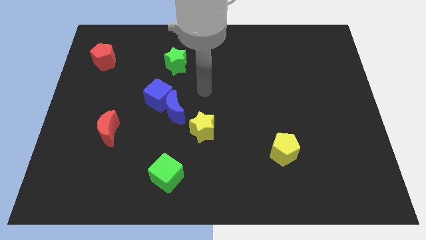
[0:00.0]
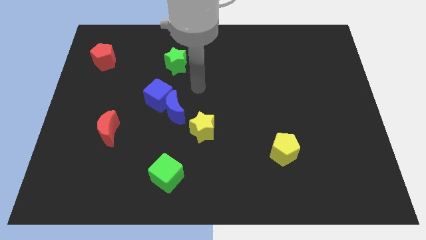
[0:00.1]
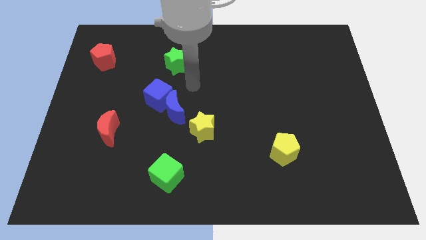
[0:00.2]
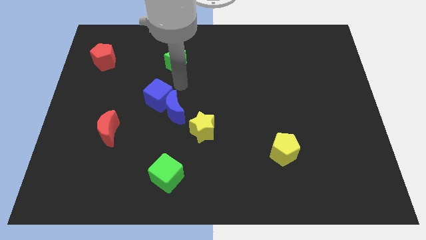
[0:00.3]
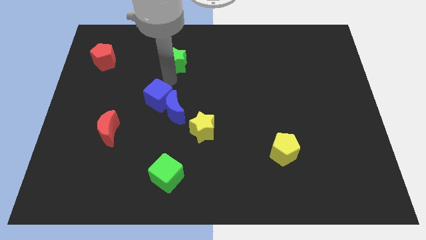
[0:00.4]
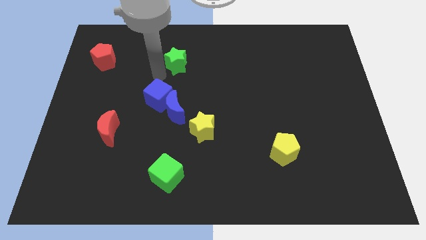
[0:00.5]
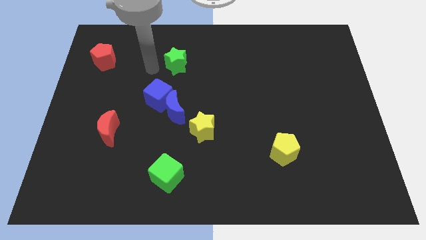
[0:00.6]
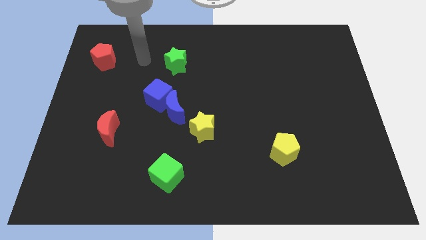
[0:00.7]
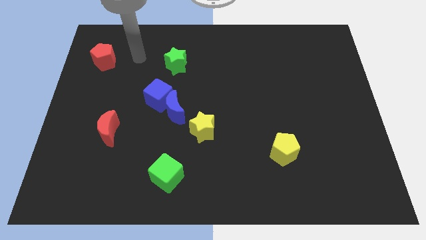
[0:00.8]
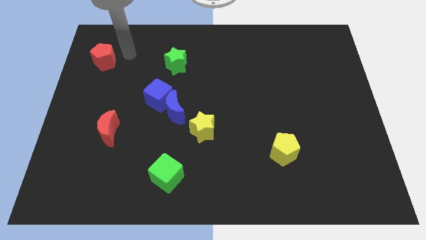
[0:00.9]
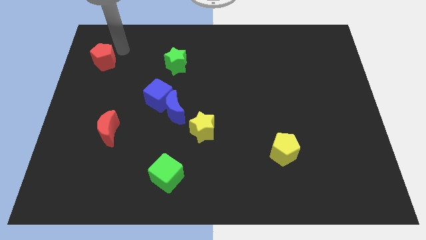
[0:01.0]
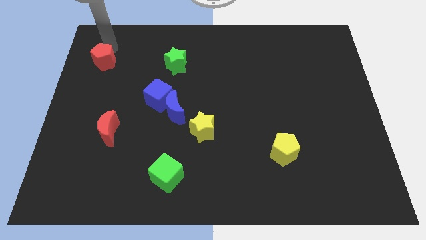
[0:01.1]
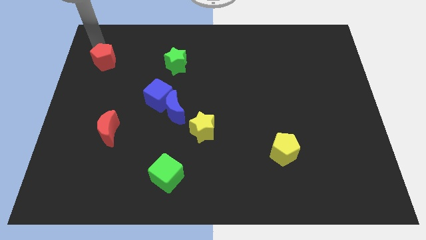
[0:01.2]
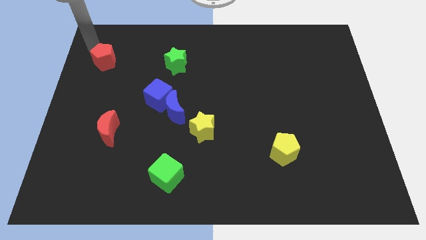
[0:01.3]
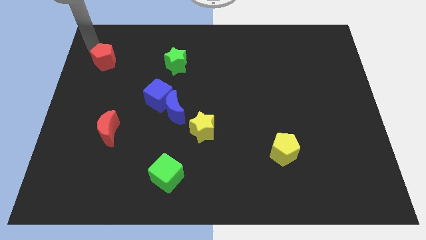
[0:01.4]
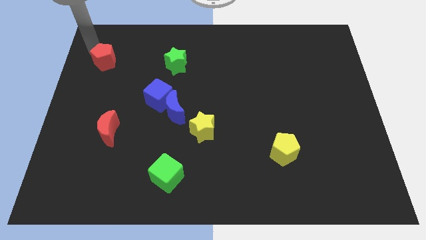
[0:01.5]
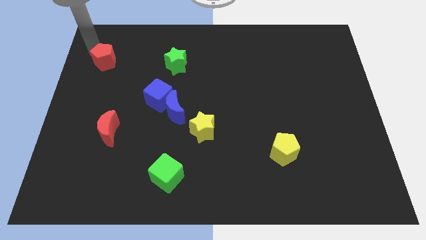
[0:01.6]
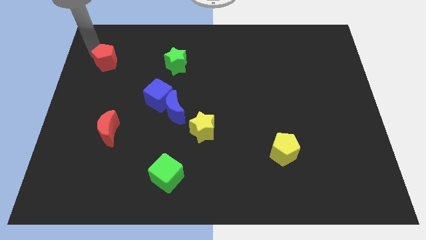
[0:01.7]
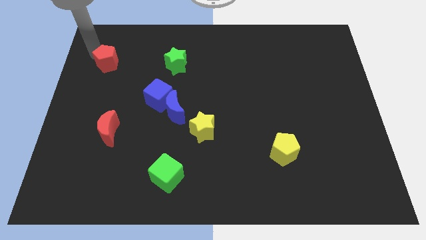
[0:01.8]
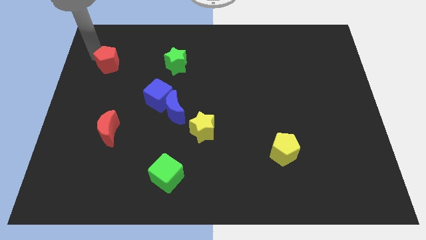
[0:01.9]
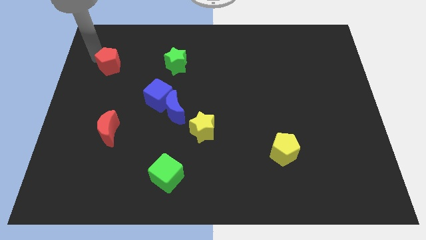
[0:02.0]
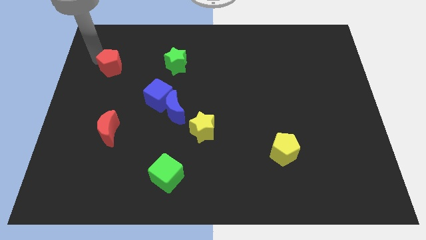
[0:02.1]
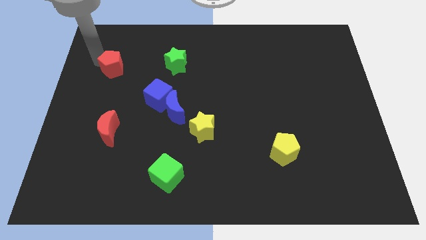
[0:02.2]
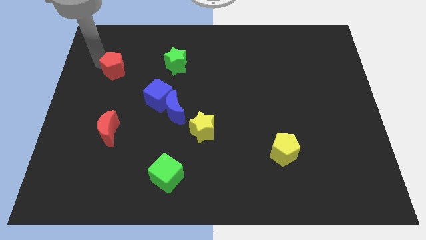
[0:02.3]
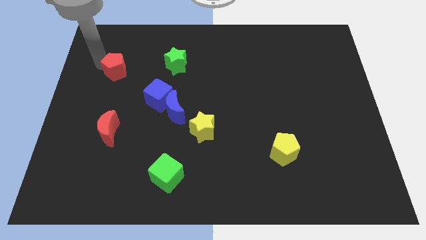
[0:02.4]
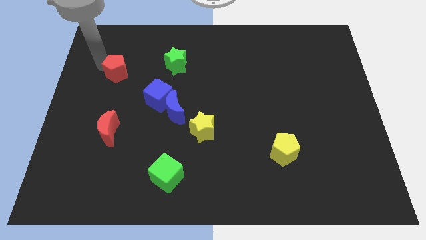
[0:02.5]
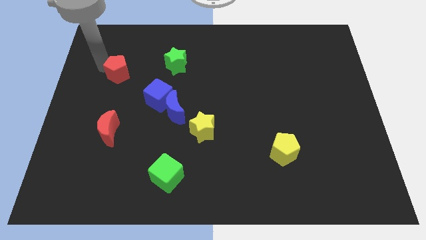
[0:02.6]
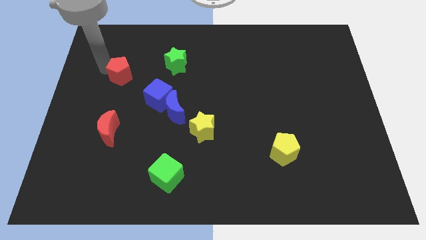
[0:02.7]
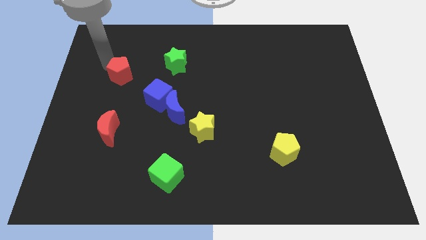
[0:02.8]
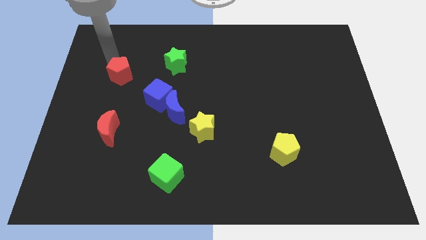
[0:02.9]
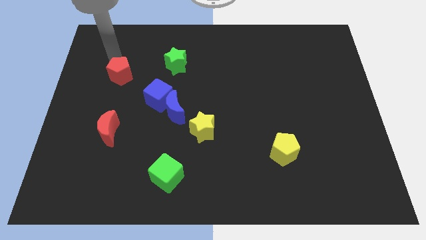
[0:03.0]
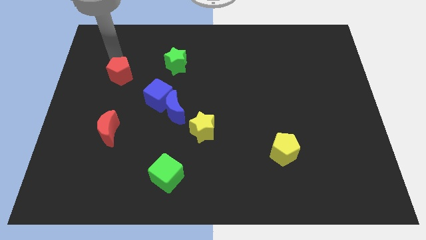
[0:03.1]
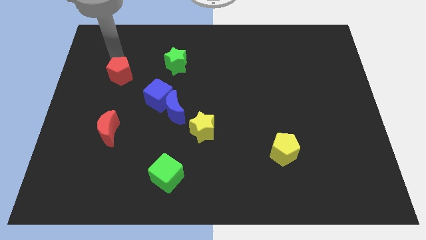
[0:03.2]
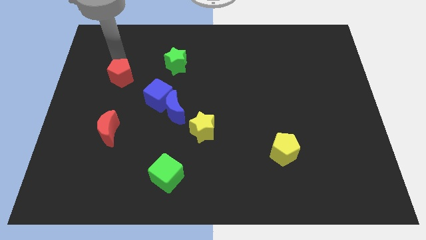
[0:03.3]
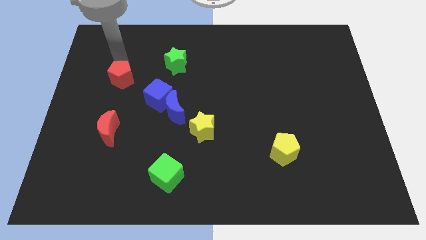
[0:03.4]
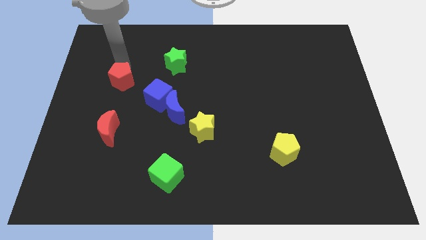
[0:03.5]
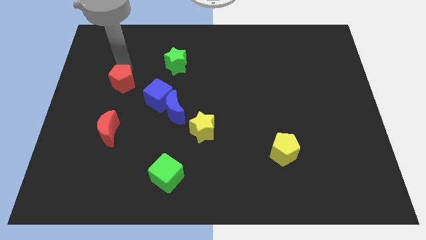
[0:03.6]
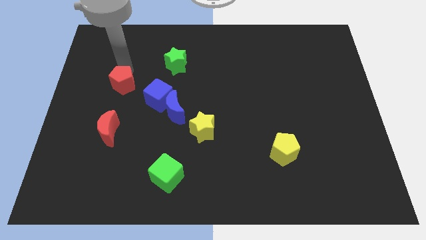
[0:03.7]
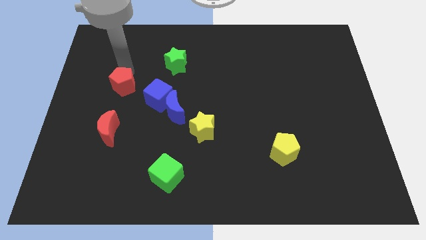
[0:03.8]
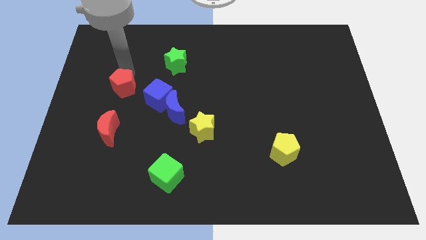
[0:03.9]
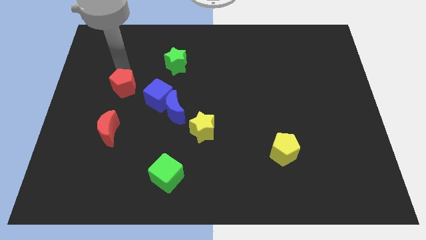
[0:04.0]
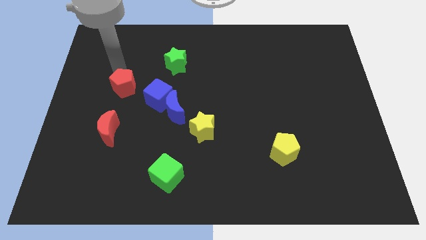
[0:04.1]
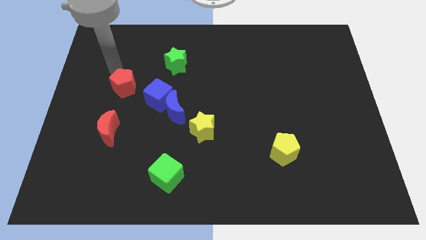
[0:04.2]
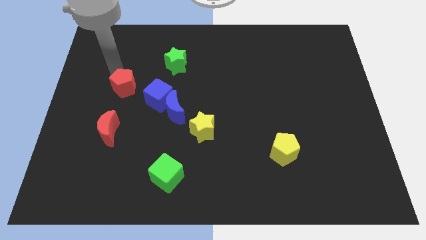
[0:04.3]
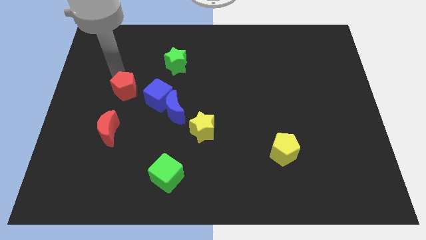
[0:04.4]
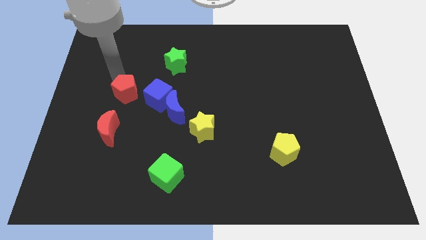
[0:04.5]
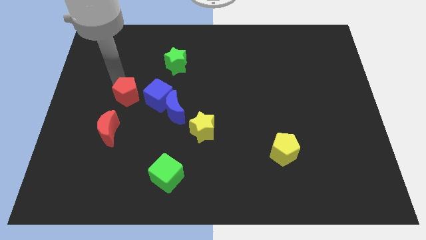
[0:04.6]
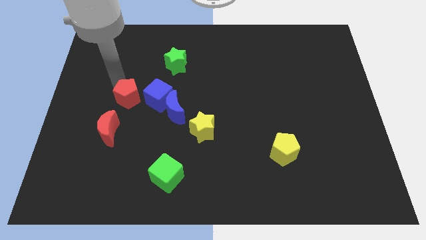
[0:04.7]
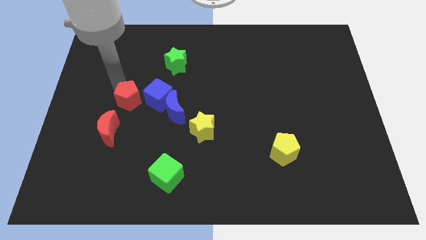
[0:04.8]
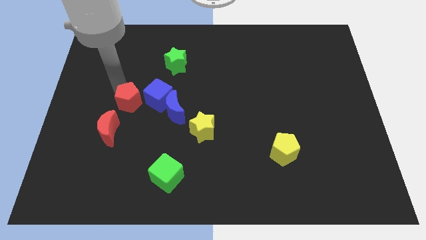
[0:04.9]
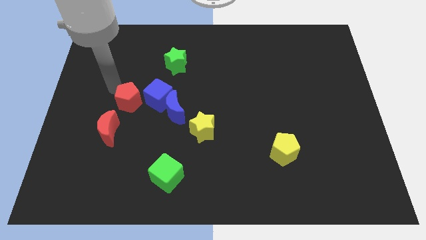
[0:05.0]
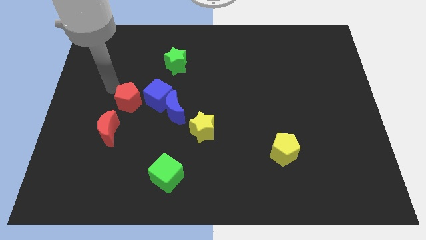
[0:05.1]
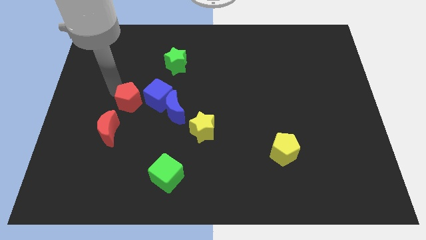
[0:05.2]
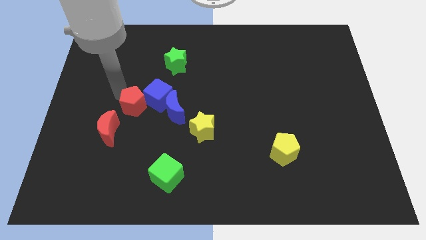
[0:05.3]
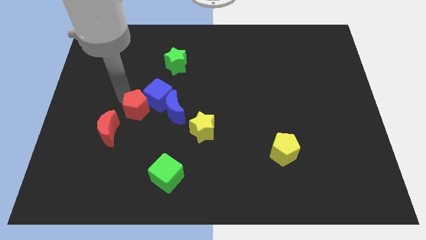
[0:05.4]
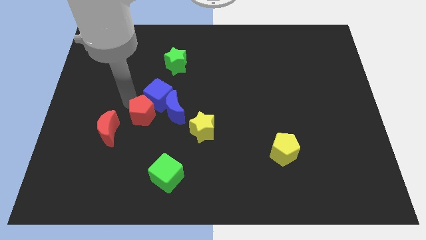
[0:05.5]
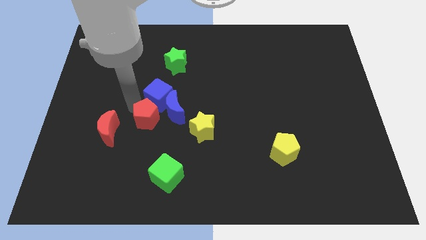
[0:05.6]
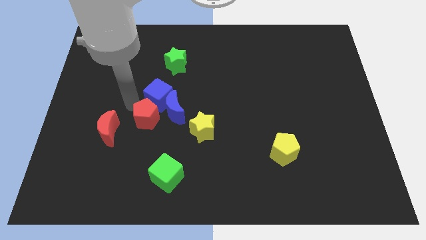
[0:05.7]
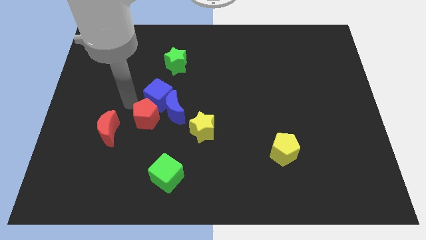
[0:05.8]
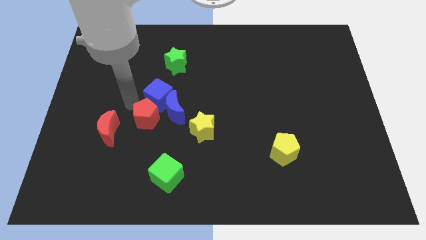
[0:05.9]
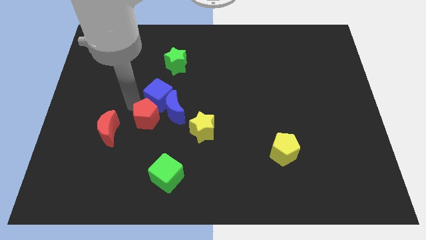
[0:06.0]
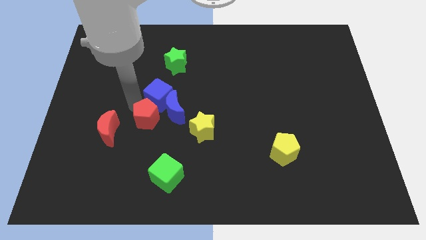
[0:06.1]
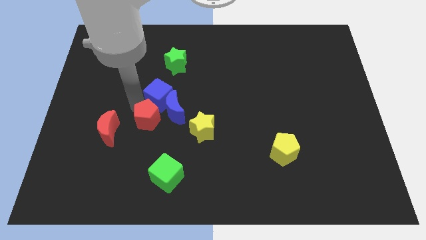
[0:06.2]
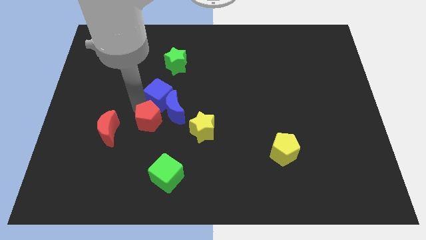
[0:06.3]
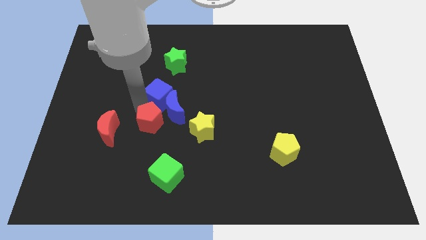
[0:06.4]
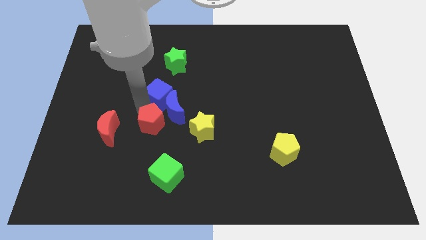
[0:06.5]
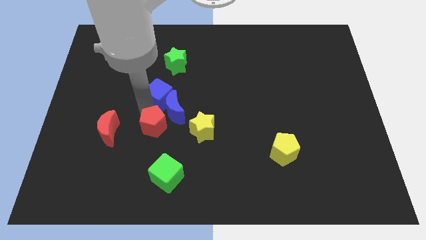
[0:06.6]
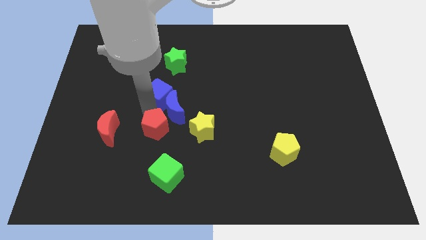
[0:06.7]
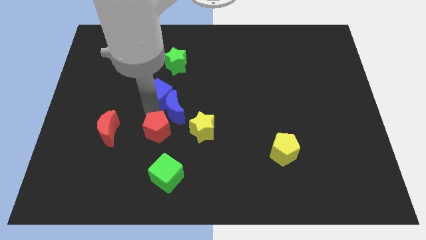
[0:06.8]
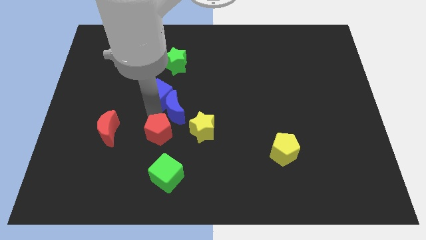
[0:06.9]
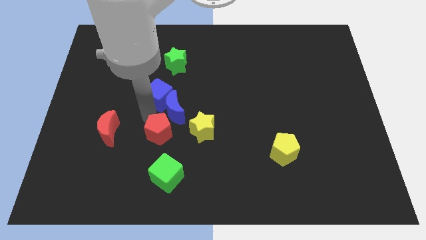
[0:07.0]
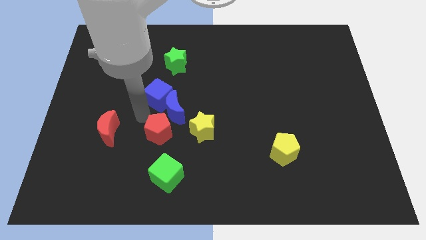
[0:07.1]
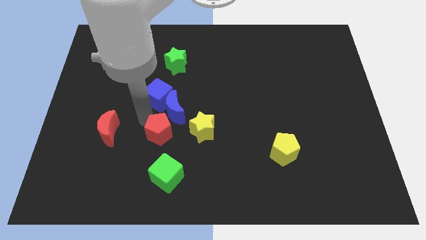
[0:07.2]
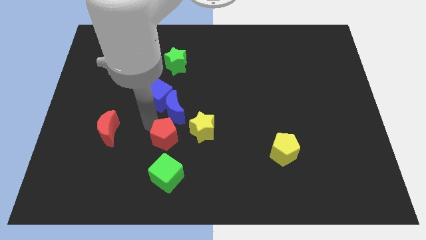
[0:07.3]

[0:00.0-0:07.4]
push the red pentagon diagonally down and to the left of the yellow star
